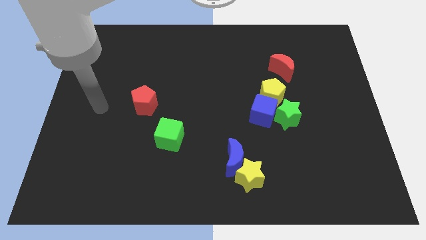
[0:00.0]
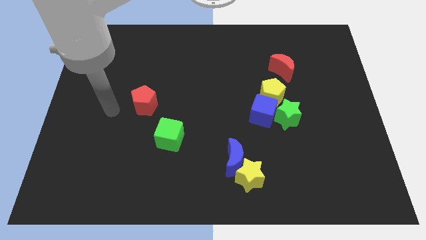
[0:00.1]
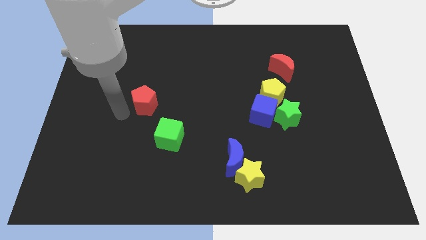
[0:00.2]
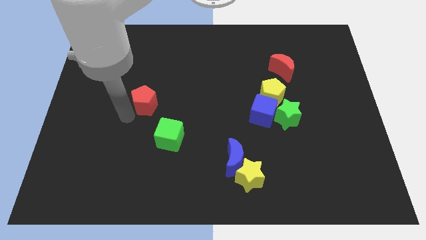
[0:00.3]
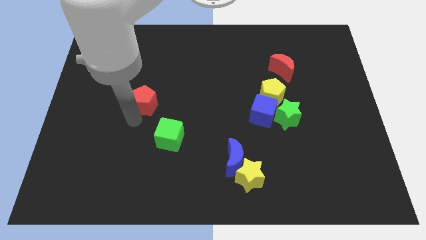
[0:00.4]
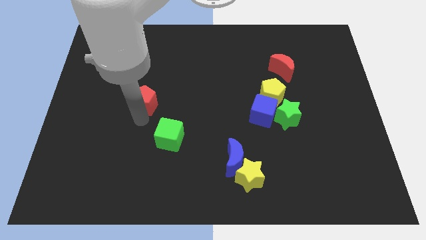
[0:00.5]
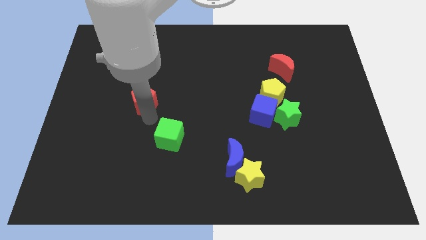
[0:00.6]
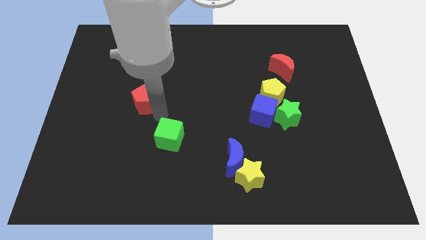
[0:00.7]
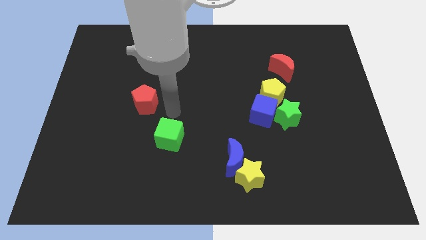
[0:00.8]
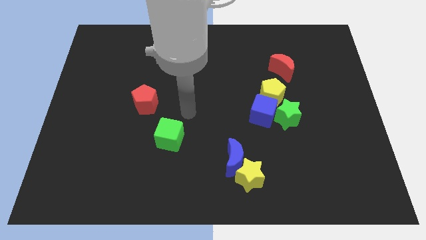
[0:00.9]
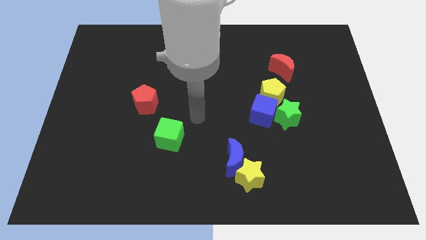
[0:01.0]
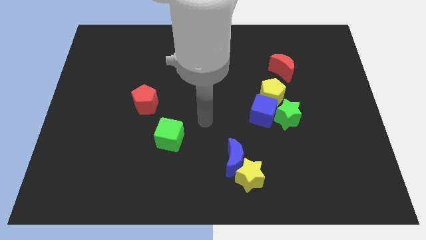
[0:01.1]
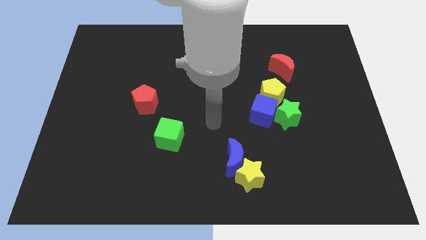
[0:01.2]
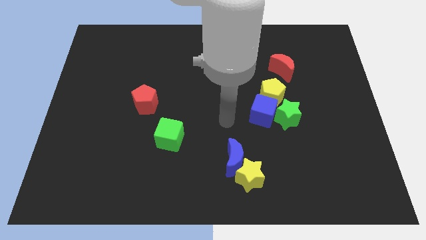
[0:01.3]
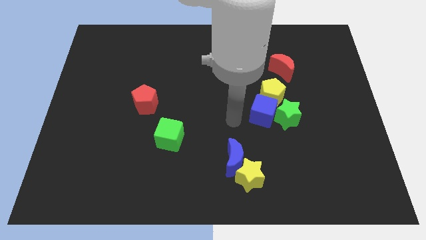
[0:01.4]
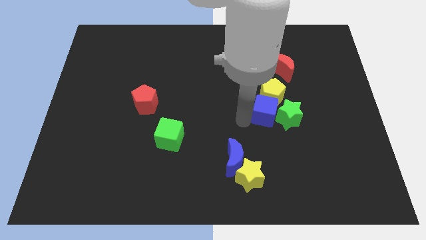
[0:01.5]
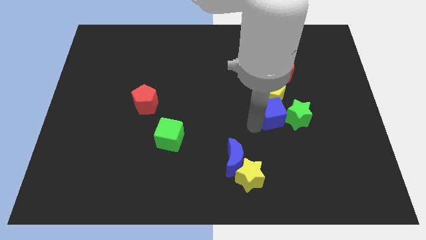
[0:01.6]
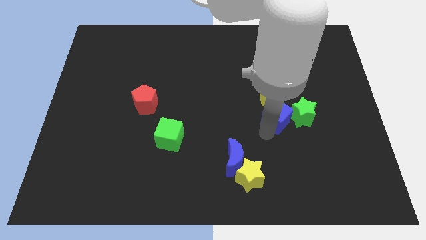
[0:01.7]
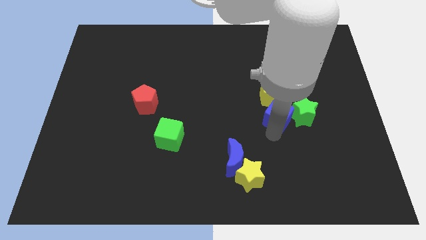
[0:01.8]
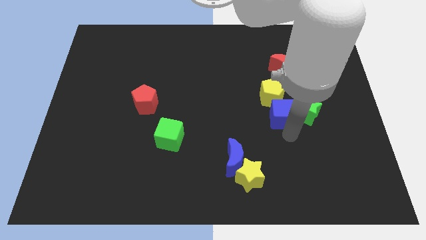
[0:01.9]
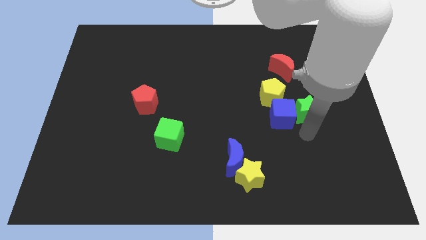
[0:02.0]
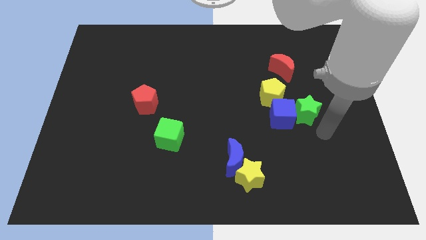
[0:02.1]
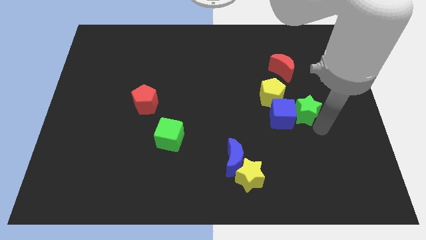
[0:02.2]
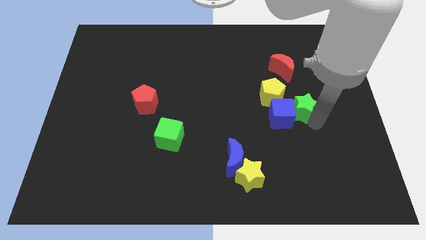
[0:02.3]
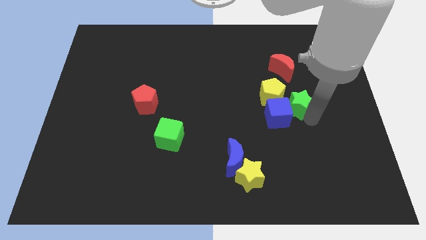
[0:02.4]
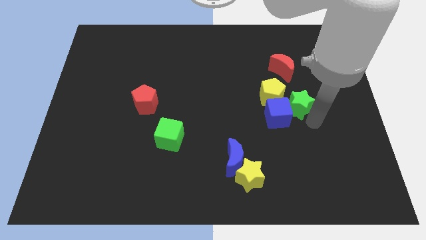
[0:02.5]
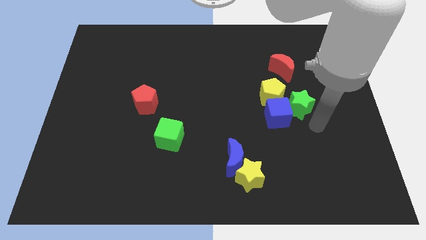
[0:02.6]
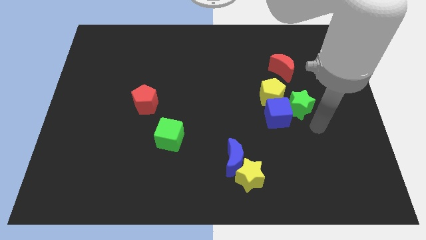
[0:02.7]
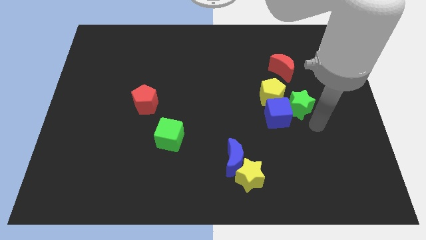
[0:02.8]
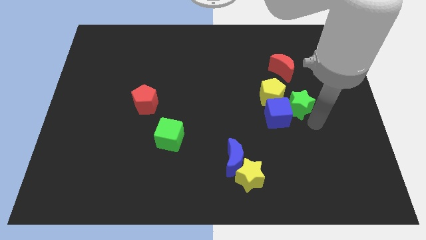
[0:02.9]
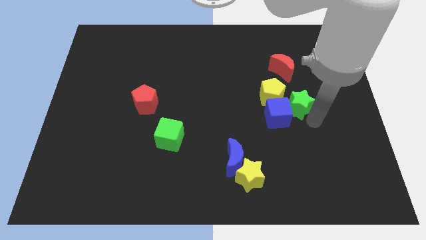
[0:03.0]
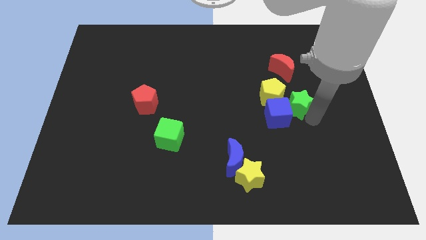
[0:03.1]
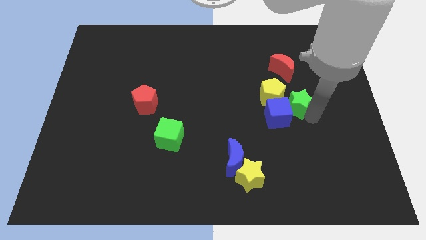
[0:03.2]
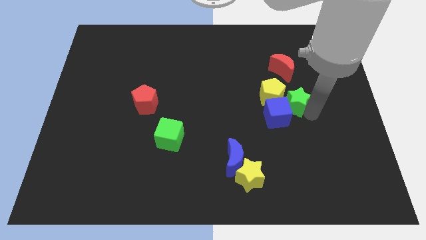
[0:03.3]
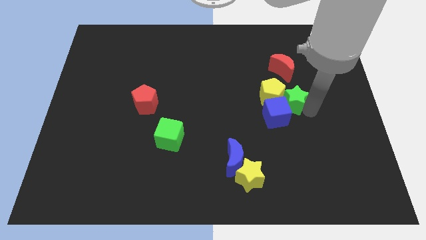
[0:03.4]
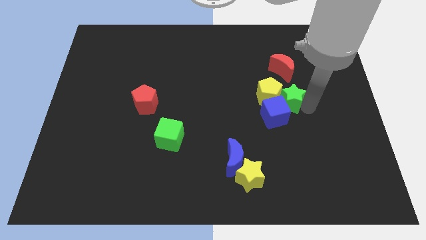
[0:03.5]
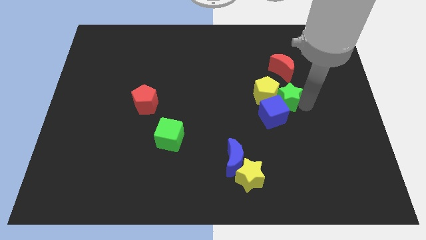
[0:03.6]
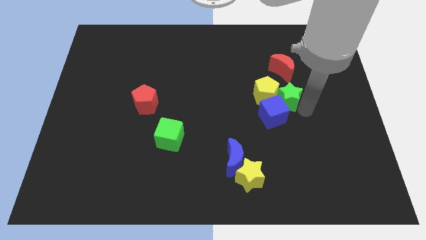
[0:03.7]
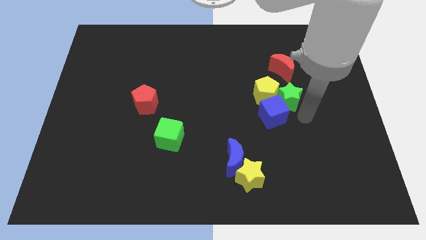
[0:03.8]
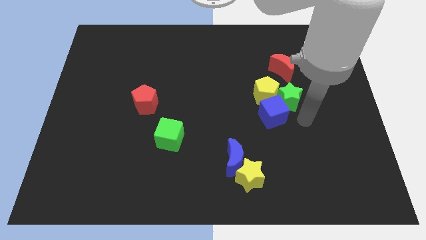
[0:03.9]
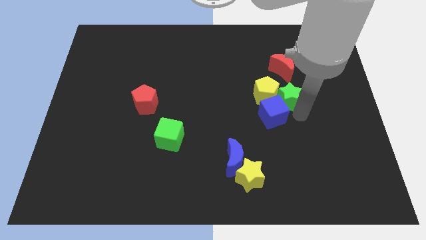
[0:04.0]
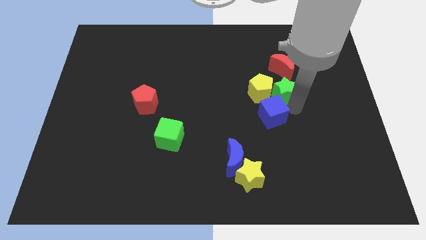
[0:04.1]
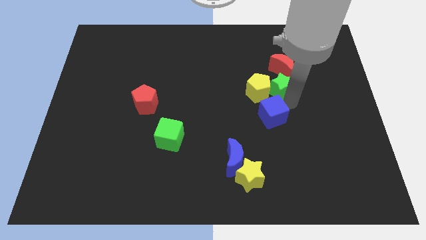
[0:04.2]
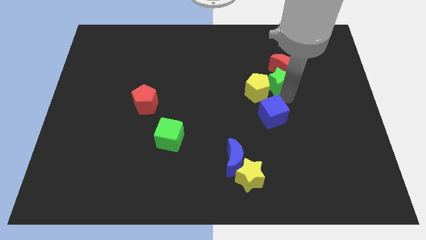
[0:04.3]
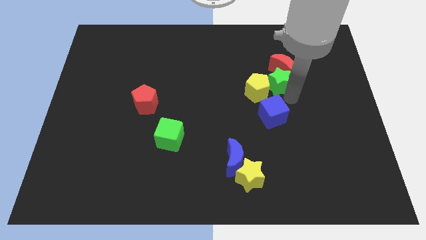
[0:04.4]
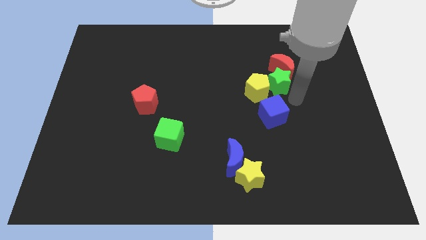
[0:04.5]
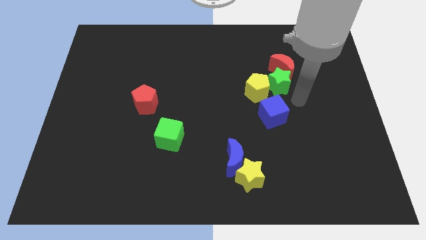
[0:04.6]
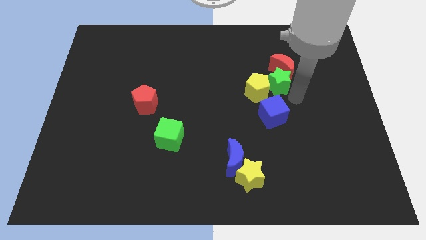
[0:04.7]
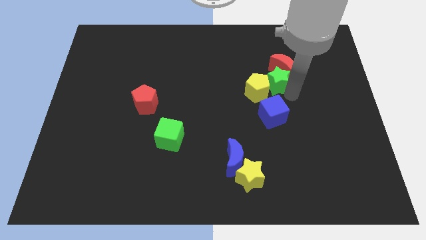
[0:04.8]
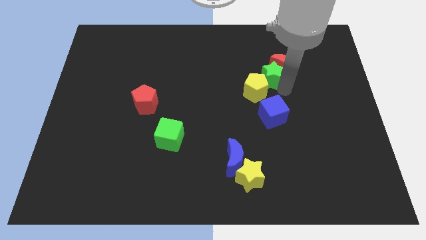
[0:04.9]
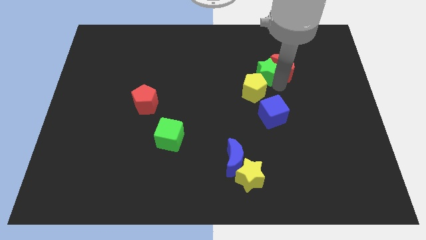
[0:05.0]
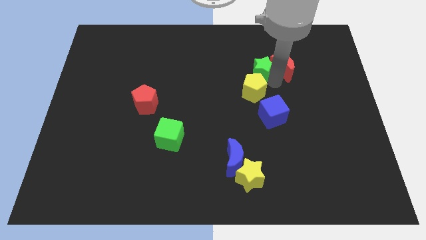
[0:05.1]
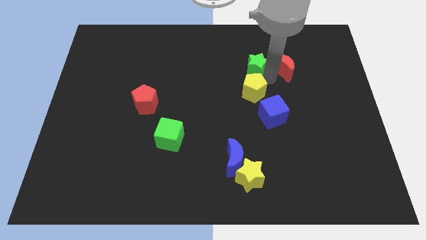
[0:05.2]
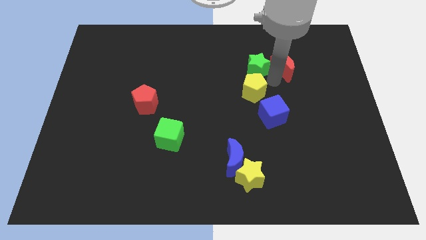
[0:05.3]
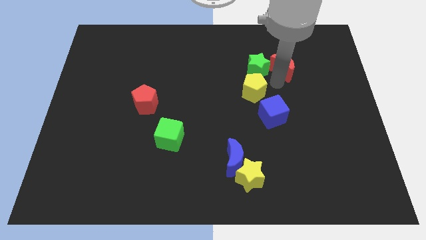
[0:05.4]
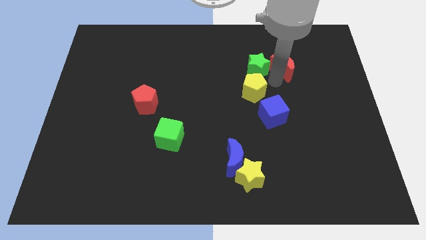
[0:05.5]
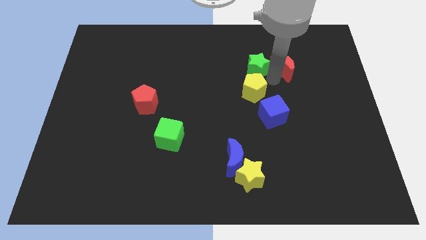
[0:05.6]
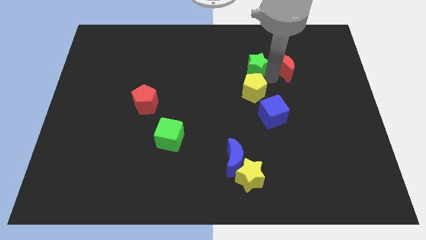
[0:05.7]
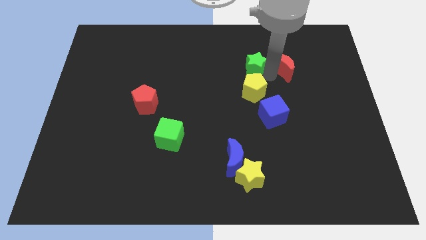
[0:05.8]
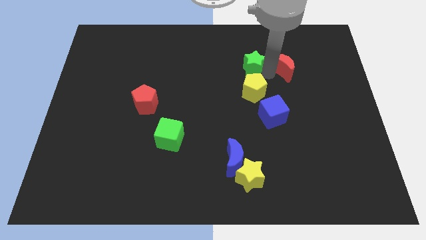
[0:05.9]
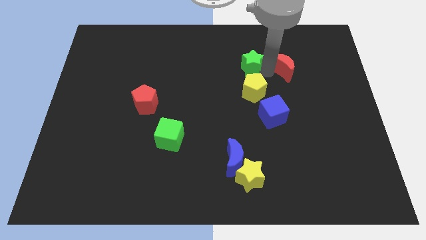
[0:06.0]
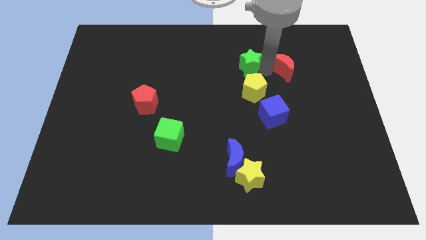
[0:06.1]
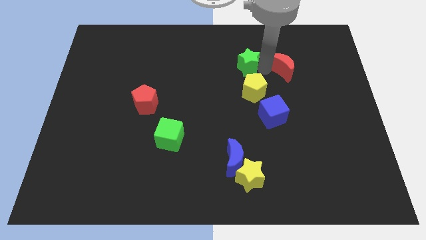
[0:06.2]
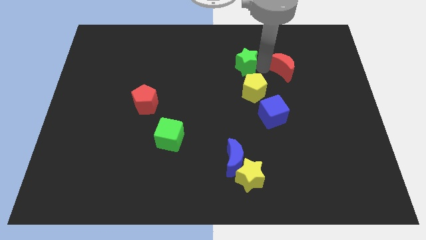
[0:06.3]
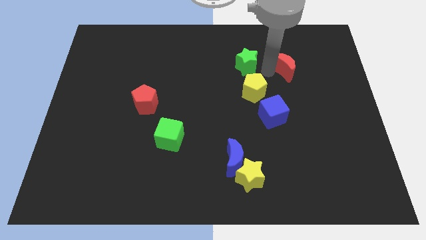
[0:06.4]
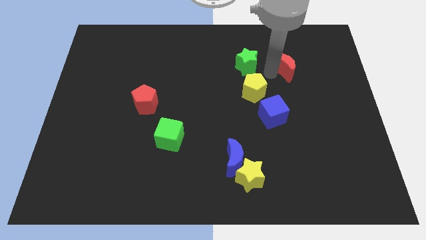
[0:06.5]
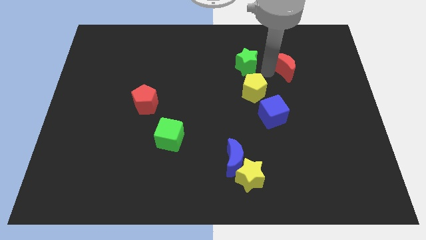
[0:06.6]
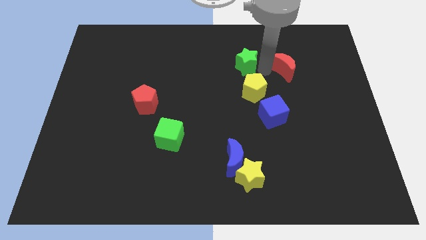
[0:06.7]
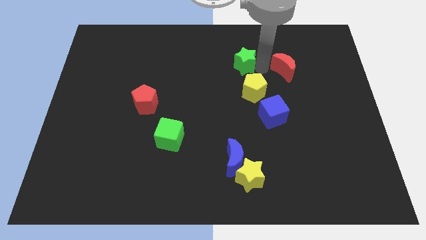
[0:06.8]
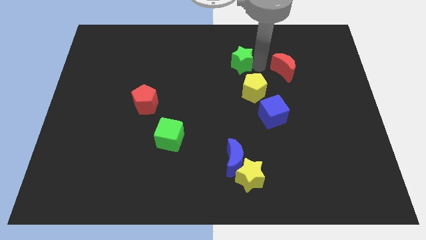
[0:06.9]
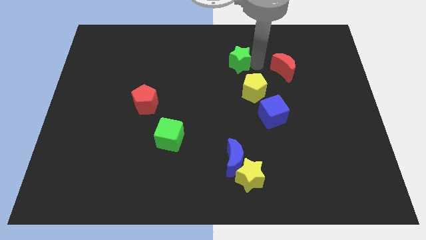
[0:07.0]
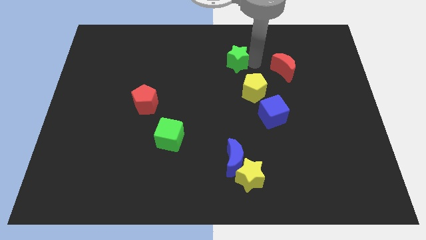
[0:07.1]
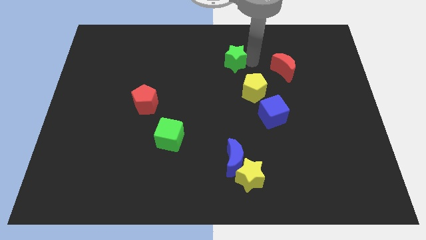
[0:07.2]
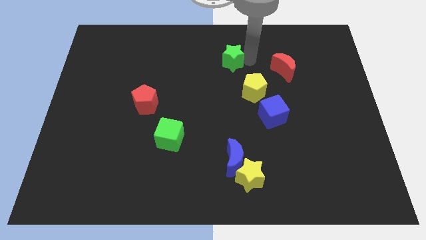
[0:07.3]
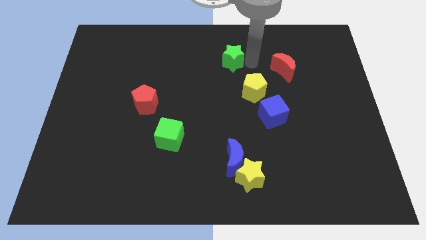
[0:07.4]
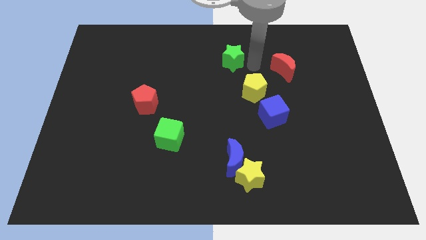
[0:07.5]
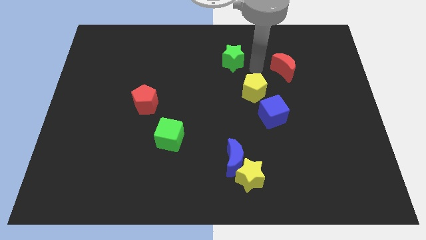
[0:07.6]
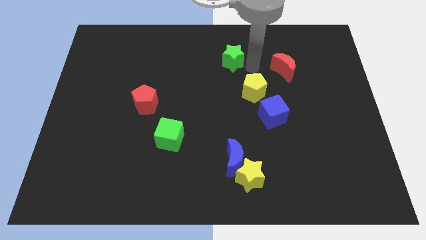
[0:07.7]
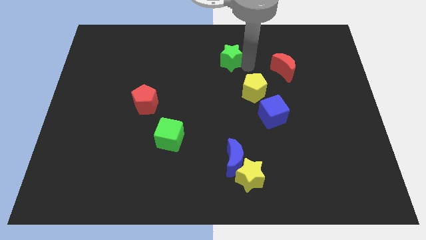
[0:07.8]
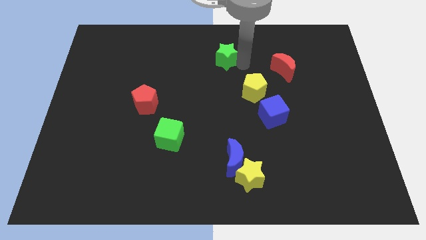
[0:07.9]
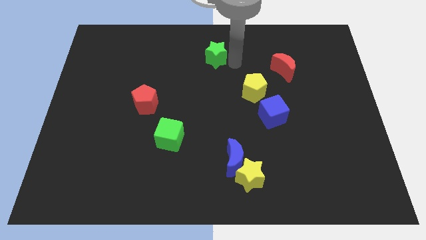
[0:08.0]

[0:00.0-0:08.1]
slide the green star to the towards your base
